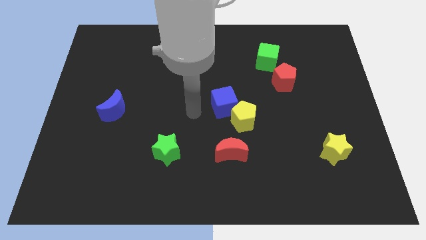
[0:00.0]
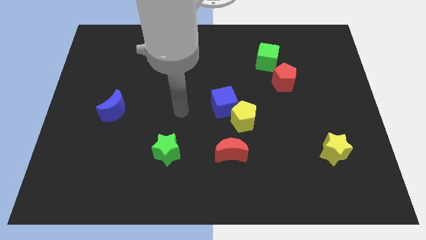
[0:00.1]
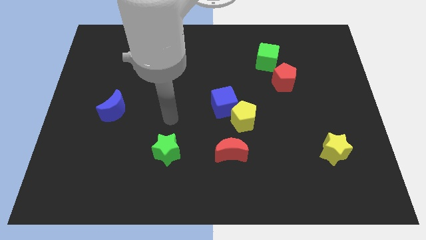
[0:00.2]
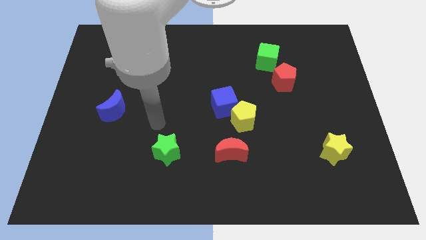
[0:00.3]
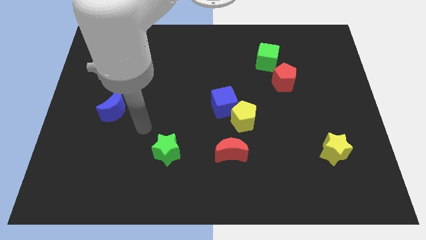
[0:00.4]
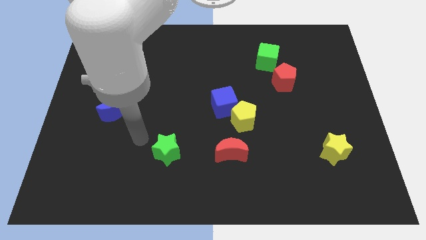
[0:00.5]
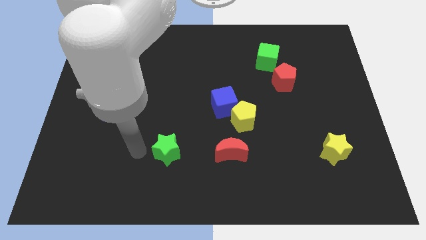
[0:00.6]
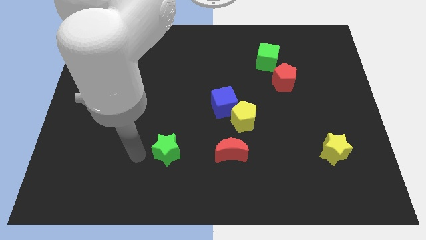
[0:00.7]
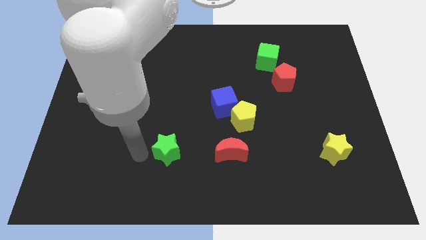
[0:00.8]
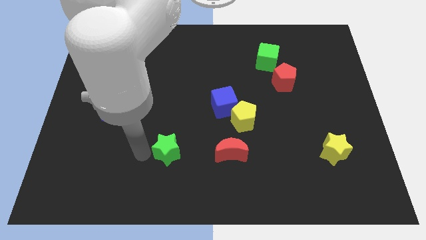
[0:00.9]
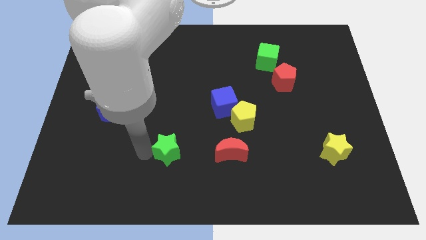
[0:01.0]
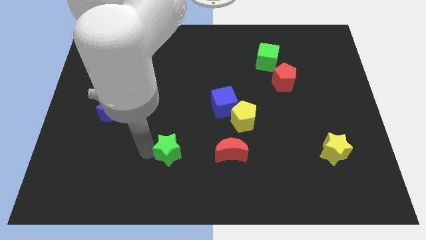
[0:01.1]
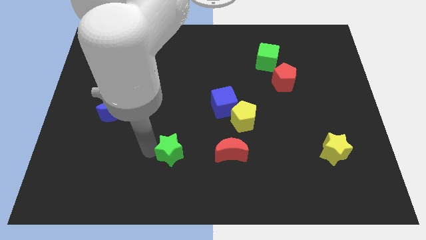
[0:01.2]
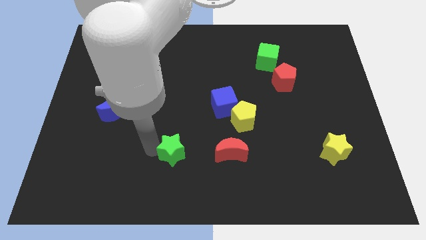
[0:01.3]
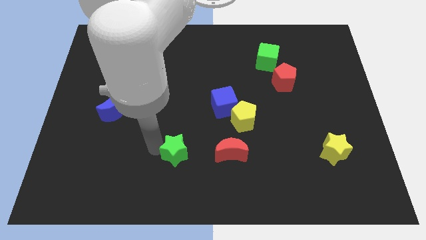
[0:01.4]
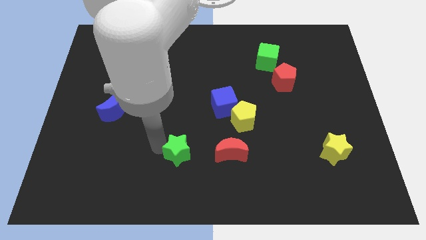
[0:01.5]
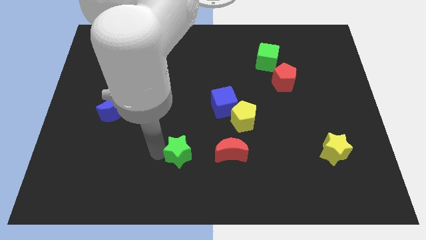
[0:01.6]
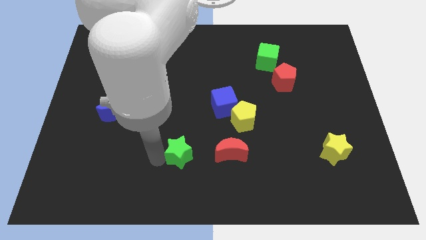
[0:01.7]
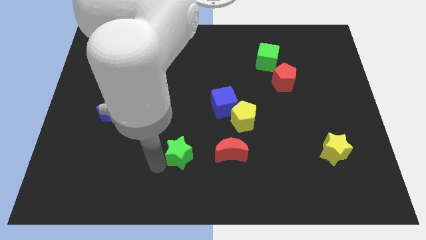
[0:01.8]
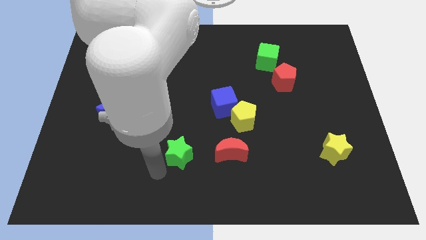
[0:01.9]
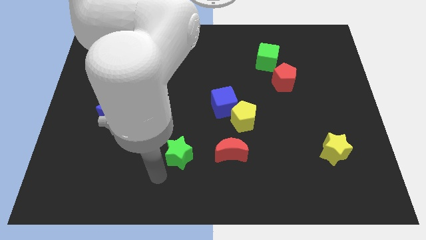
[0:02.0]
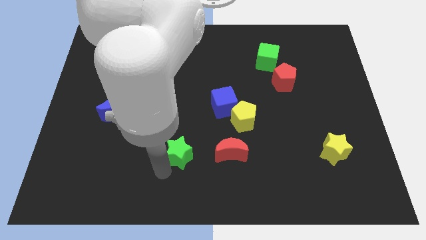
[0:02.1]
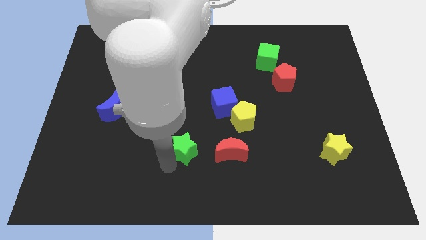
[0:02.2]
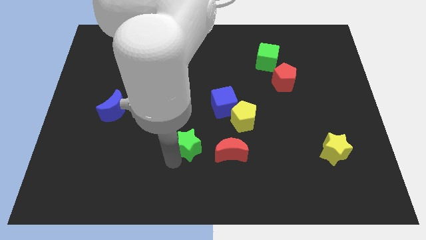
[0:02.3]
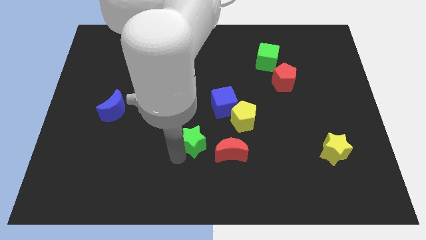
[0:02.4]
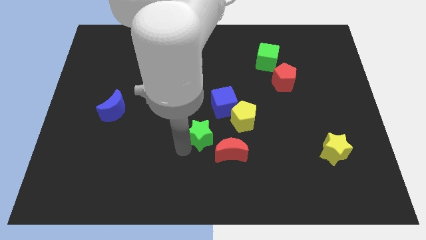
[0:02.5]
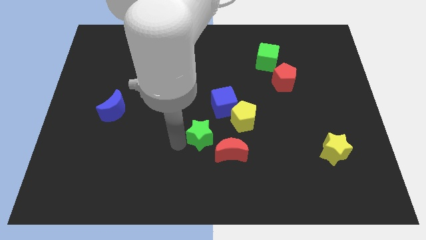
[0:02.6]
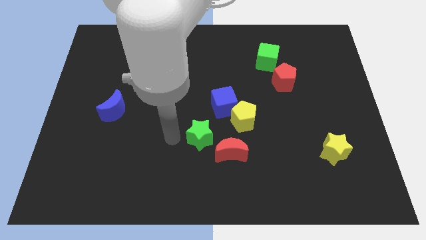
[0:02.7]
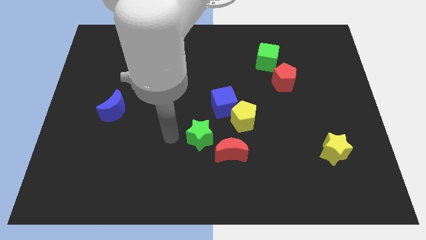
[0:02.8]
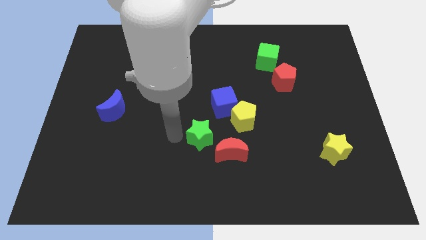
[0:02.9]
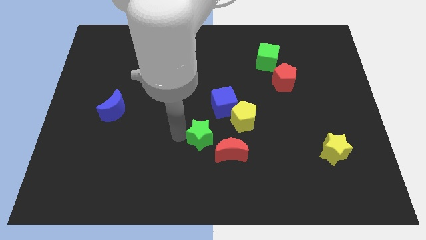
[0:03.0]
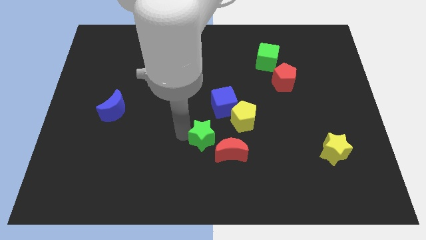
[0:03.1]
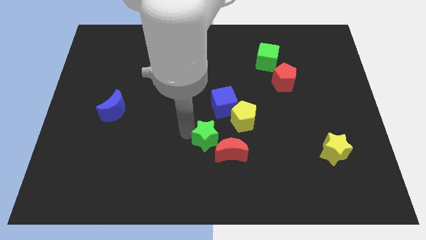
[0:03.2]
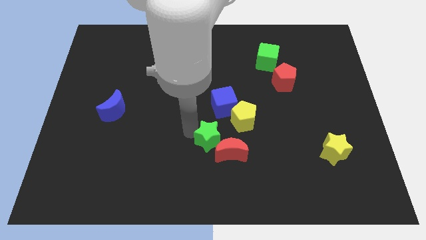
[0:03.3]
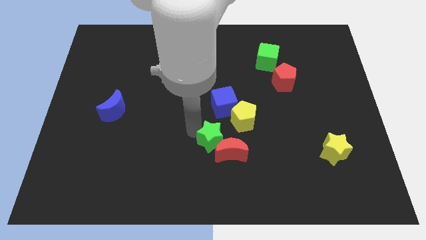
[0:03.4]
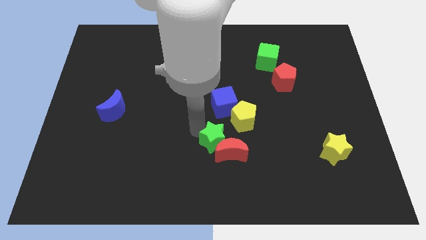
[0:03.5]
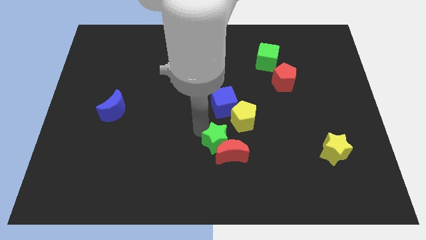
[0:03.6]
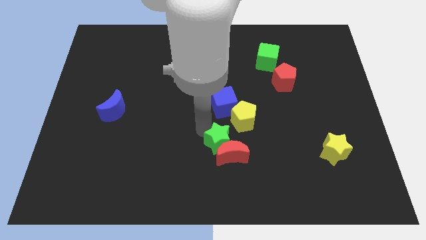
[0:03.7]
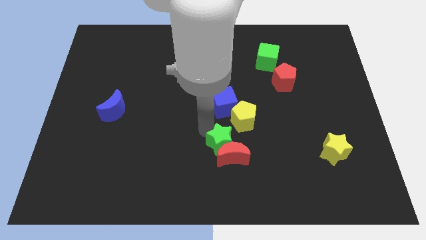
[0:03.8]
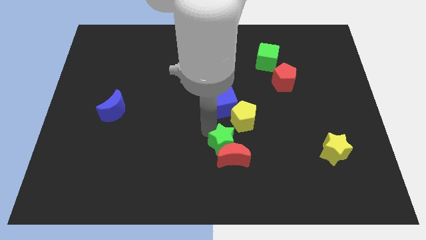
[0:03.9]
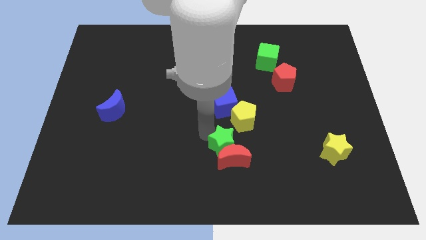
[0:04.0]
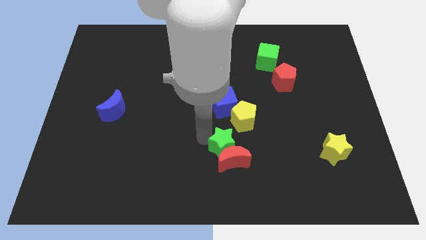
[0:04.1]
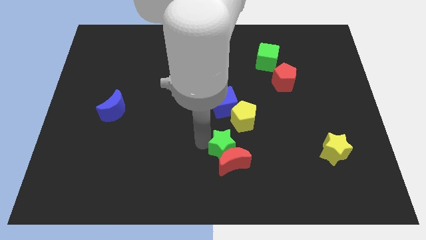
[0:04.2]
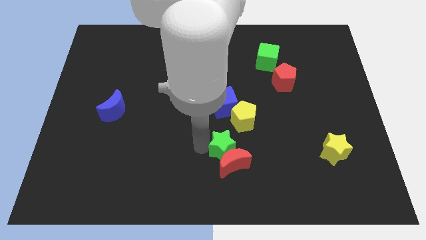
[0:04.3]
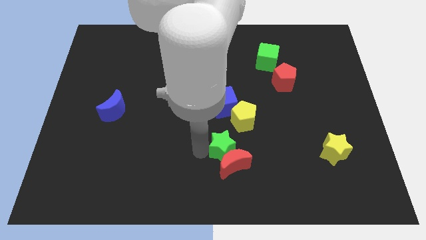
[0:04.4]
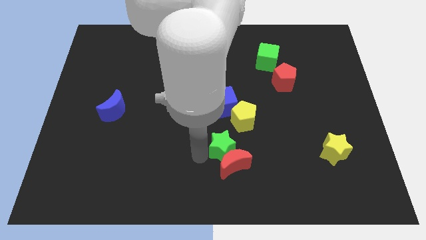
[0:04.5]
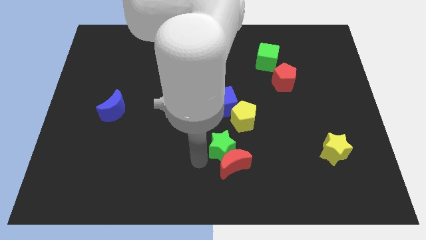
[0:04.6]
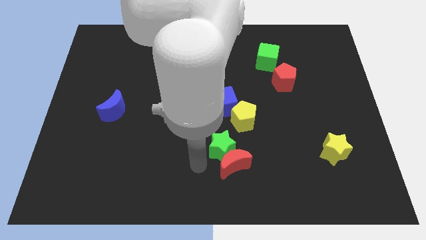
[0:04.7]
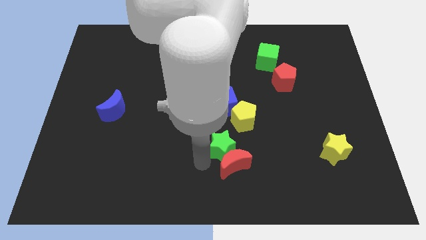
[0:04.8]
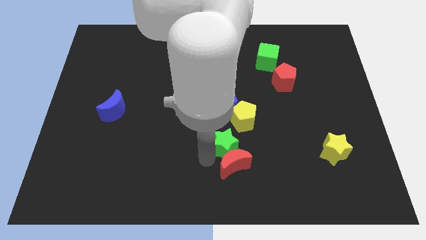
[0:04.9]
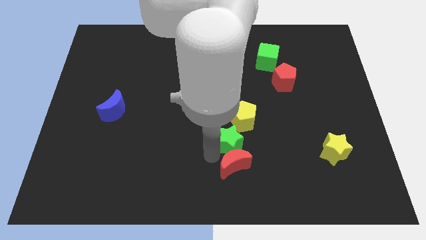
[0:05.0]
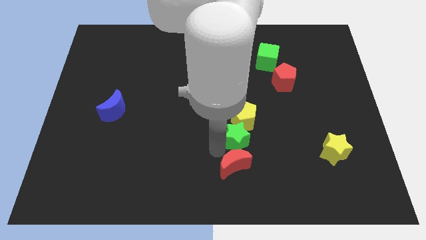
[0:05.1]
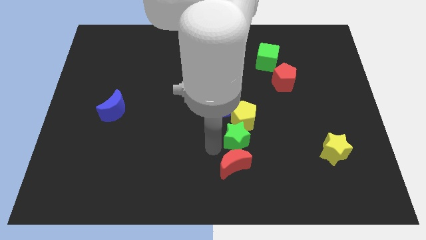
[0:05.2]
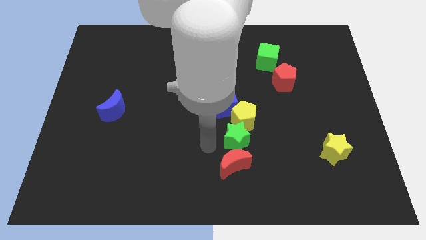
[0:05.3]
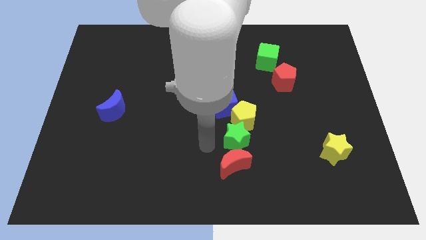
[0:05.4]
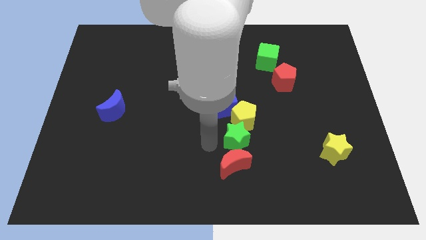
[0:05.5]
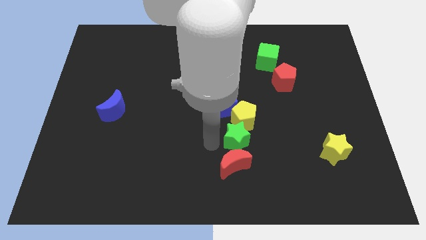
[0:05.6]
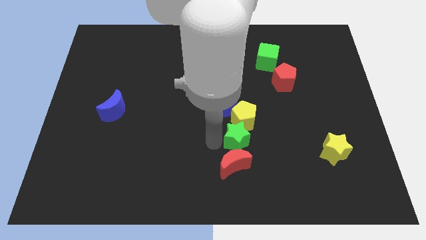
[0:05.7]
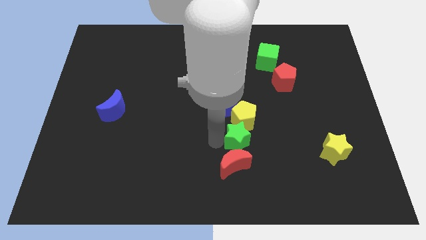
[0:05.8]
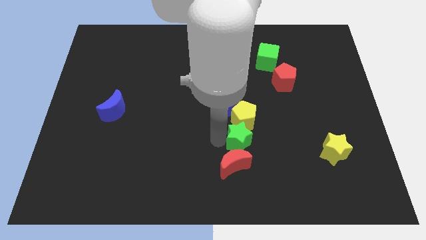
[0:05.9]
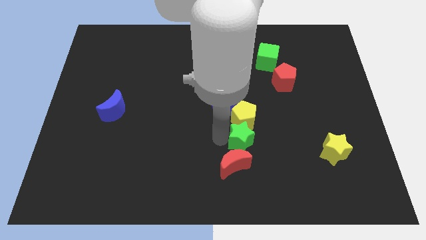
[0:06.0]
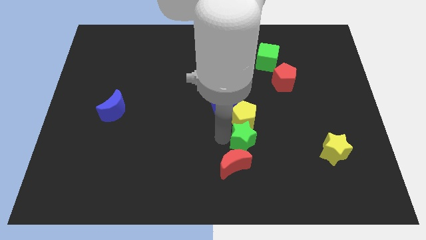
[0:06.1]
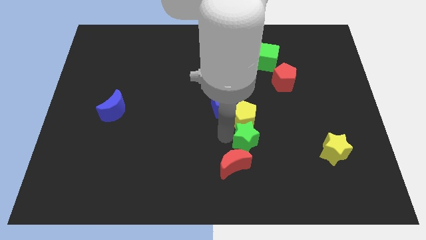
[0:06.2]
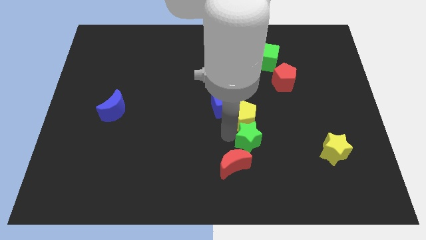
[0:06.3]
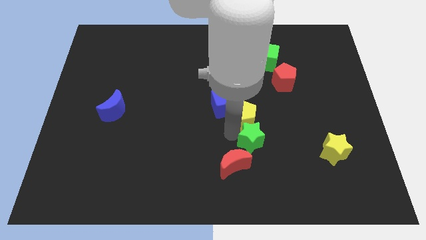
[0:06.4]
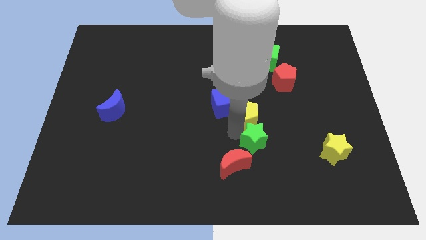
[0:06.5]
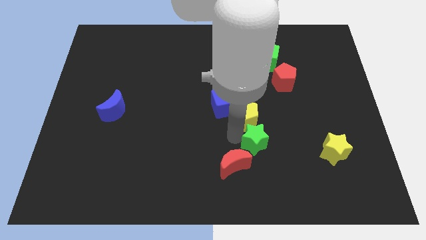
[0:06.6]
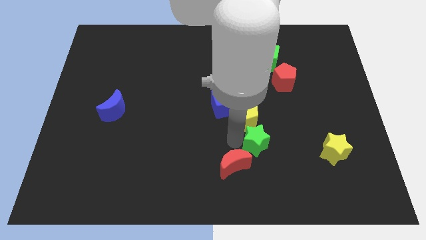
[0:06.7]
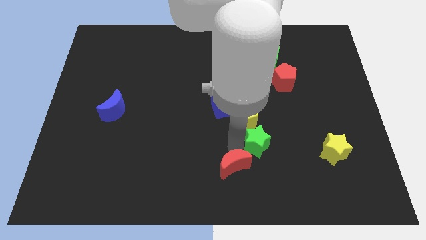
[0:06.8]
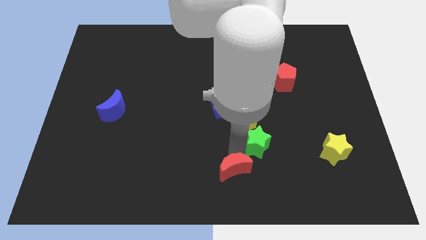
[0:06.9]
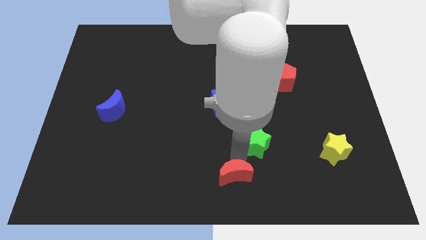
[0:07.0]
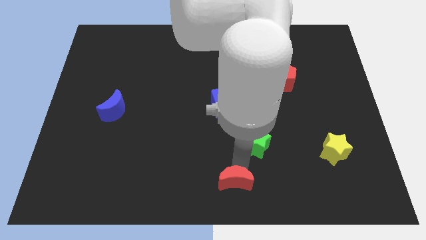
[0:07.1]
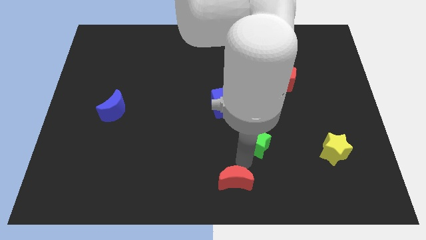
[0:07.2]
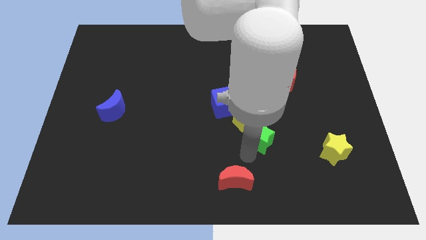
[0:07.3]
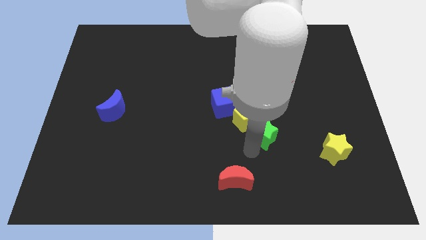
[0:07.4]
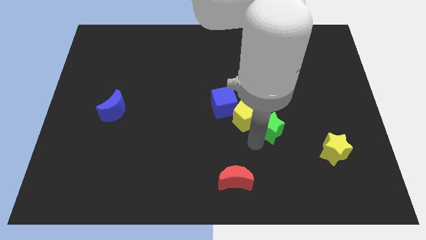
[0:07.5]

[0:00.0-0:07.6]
push the green star to the right of the yellow pentagon
